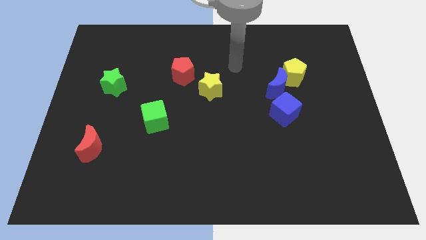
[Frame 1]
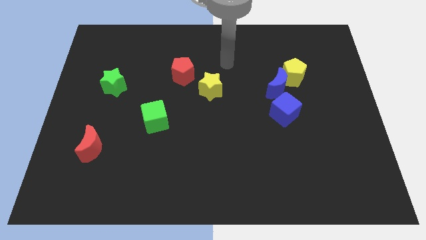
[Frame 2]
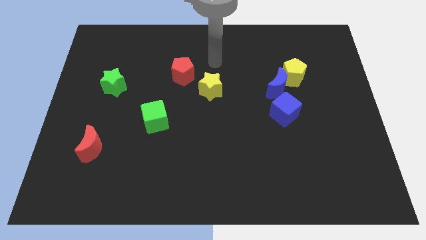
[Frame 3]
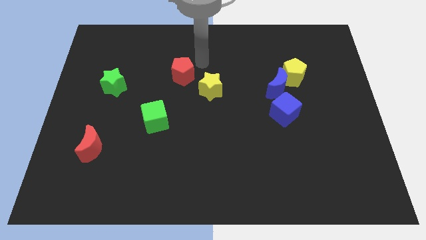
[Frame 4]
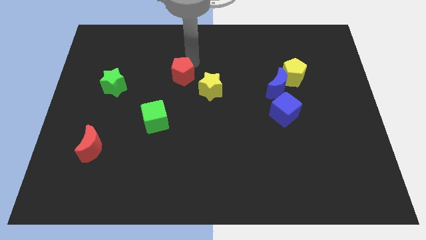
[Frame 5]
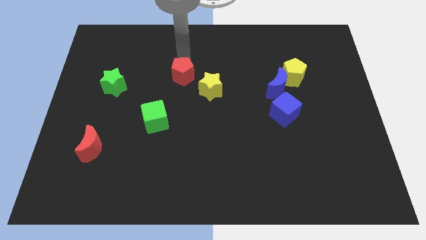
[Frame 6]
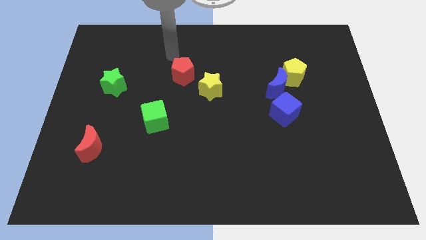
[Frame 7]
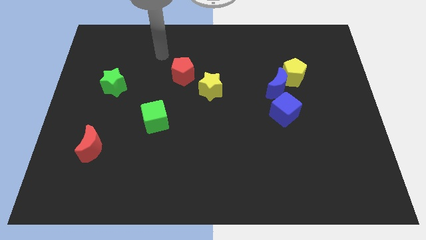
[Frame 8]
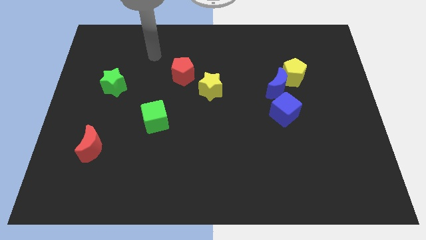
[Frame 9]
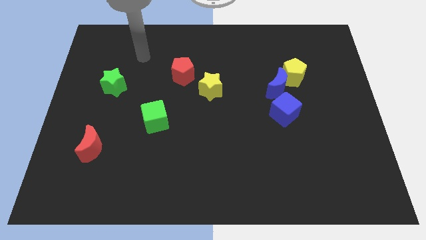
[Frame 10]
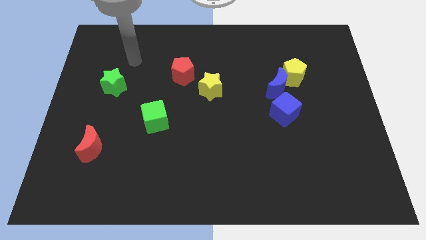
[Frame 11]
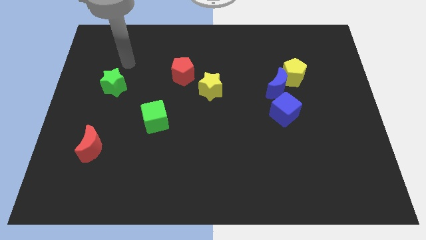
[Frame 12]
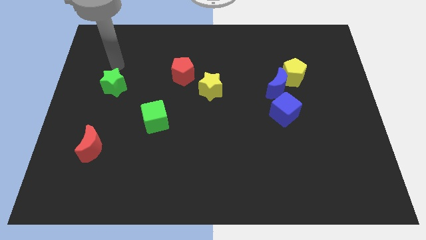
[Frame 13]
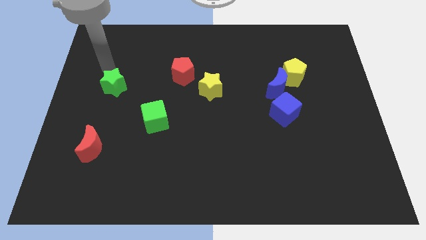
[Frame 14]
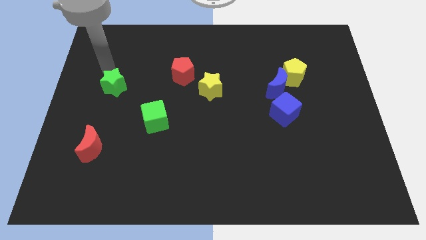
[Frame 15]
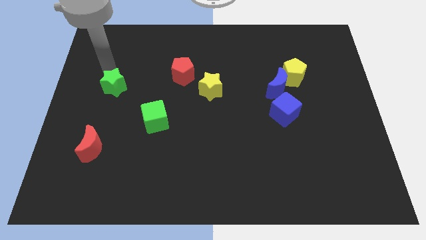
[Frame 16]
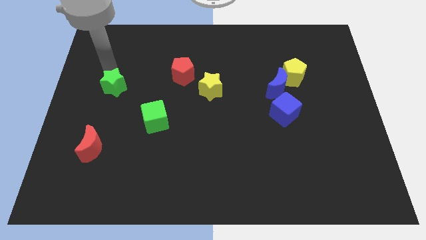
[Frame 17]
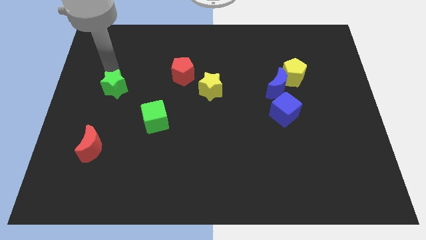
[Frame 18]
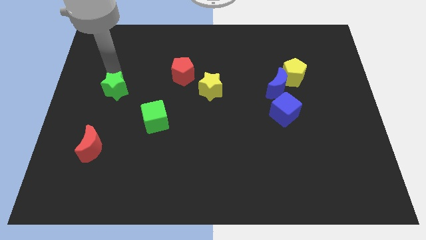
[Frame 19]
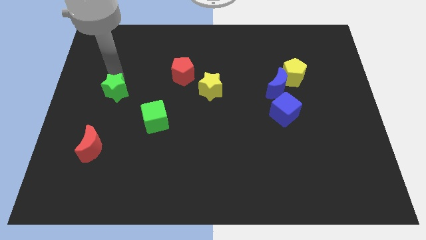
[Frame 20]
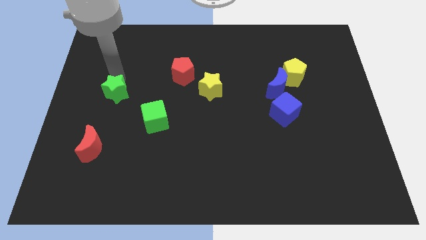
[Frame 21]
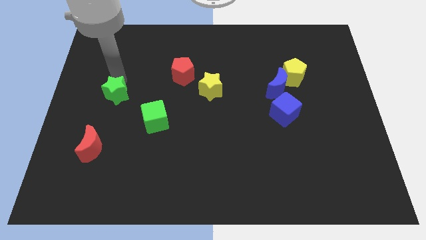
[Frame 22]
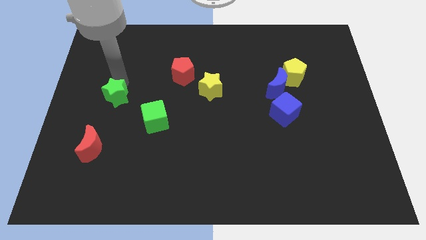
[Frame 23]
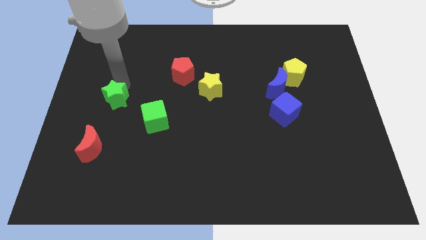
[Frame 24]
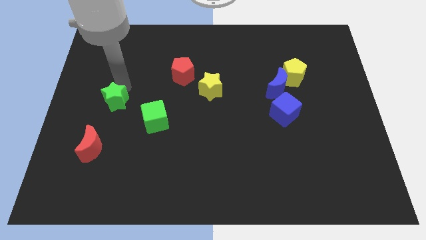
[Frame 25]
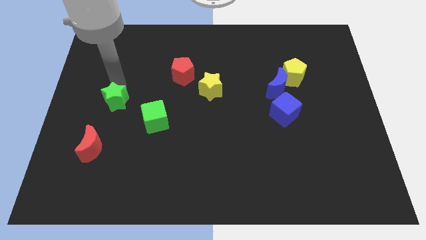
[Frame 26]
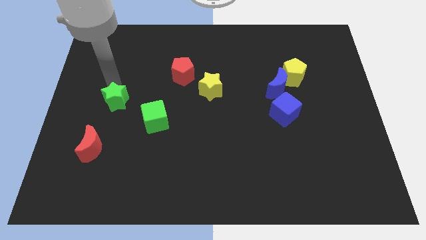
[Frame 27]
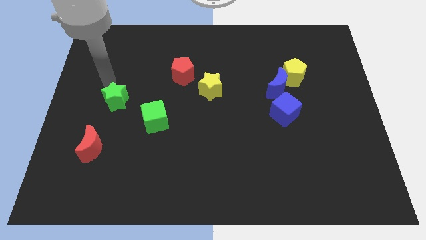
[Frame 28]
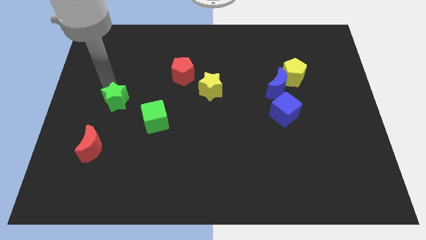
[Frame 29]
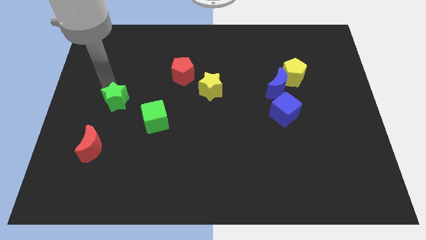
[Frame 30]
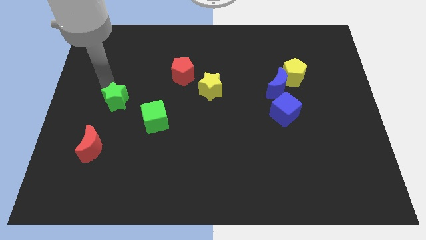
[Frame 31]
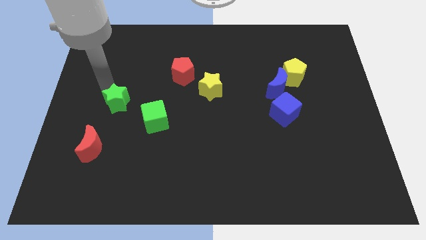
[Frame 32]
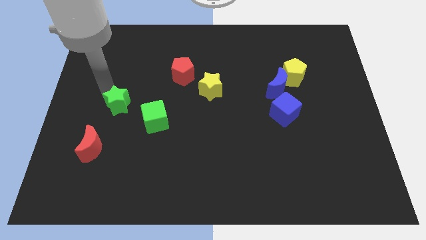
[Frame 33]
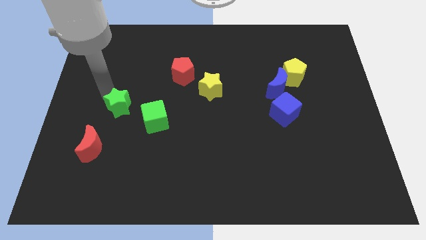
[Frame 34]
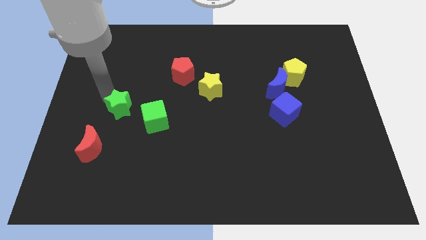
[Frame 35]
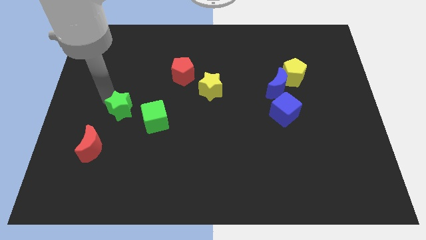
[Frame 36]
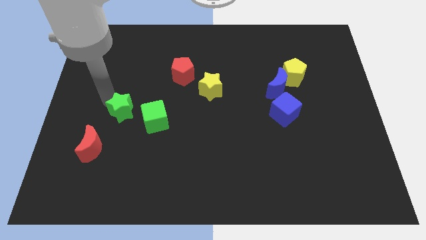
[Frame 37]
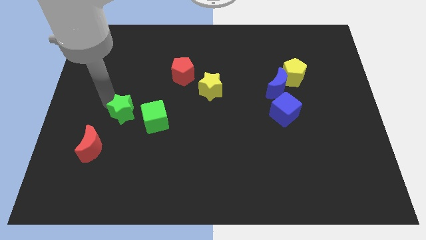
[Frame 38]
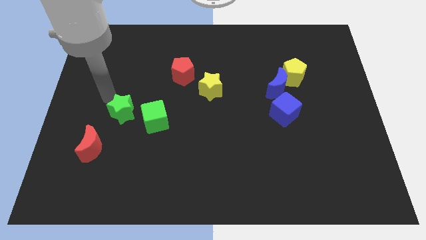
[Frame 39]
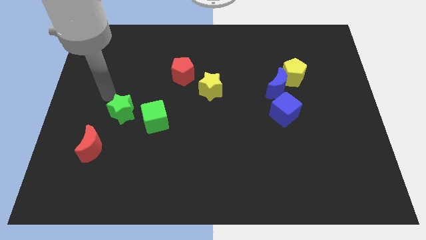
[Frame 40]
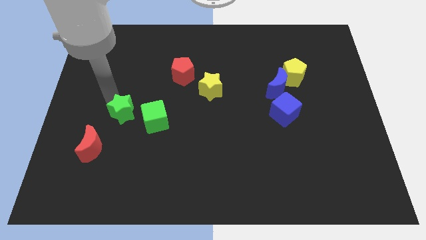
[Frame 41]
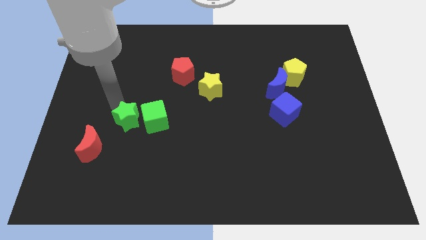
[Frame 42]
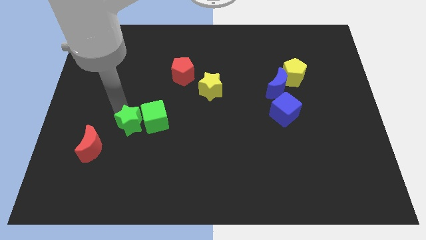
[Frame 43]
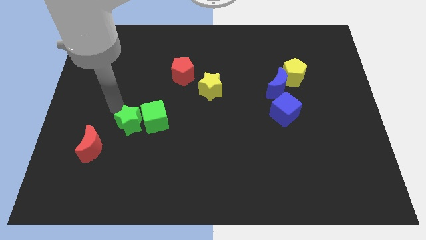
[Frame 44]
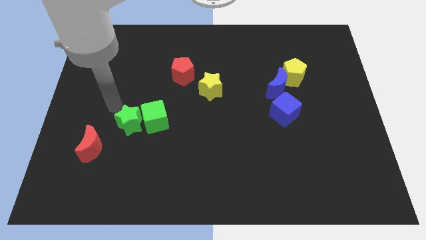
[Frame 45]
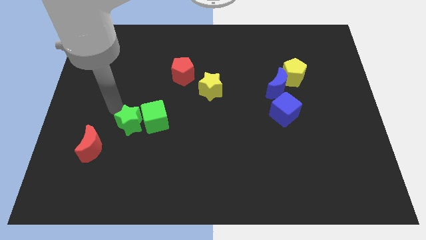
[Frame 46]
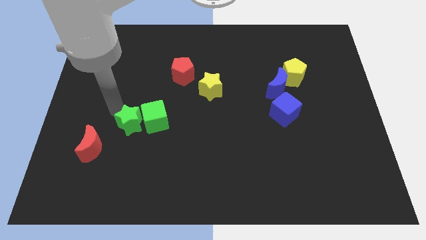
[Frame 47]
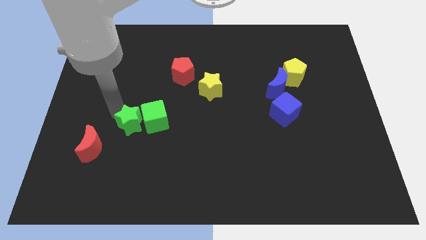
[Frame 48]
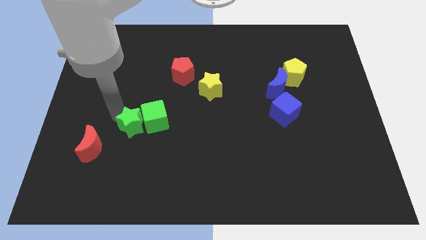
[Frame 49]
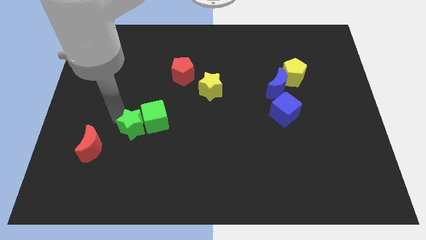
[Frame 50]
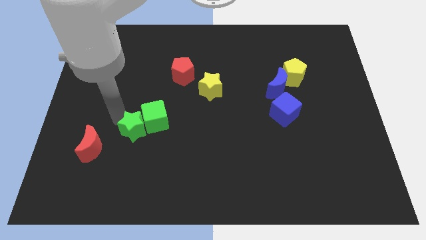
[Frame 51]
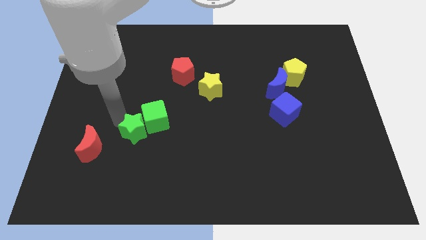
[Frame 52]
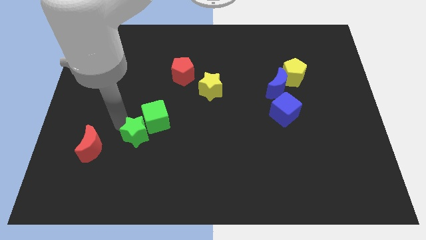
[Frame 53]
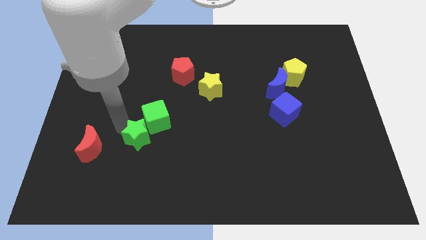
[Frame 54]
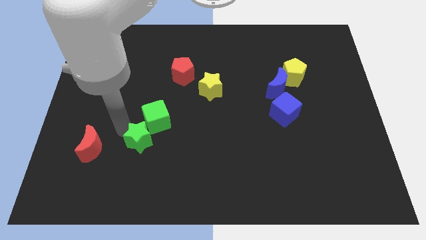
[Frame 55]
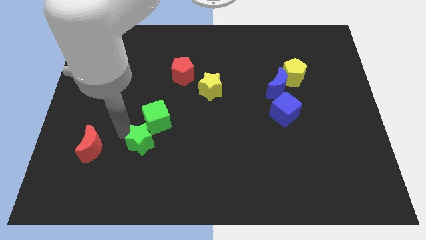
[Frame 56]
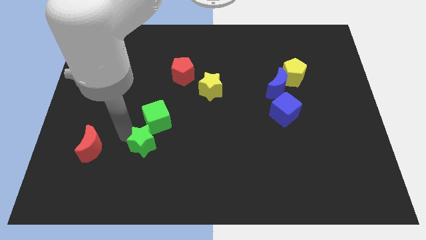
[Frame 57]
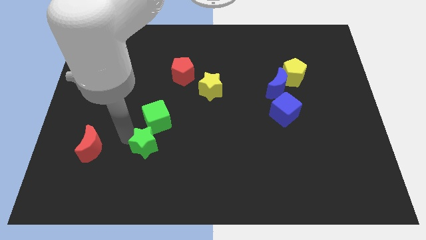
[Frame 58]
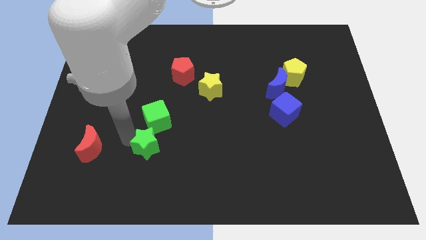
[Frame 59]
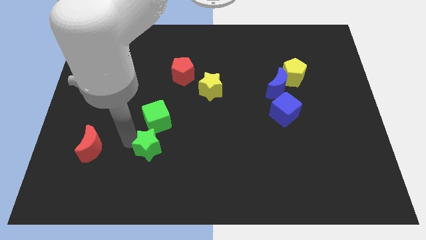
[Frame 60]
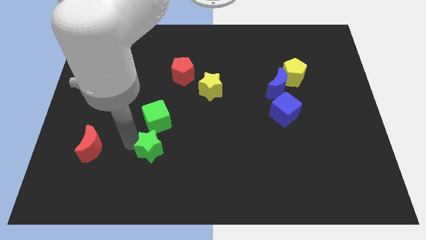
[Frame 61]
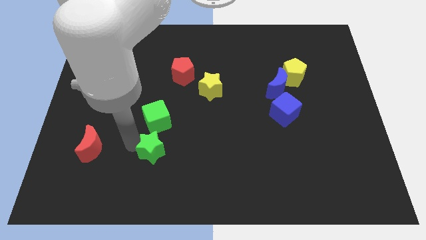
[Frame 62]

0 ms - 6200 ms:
push the green star downwards and then right
